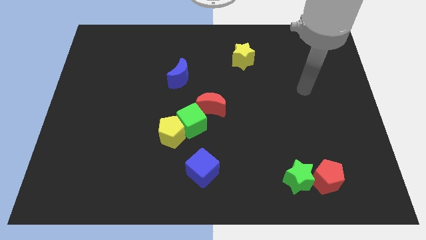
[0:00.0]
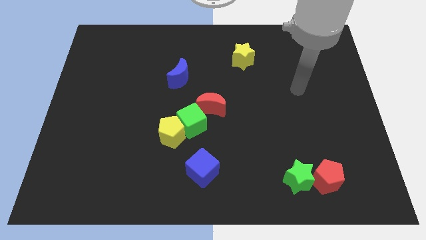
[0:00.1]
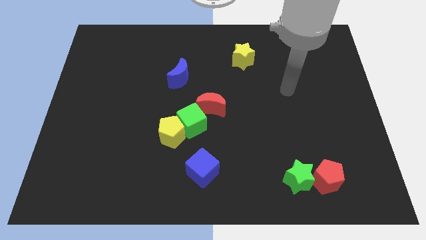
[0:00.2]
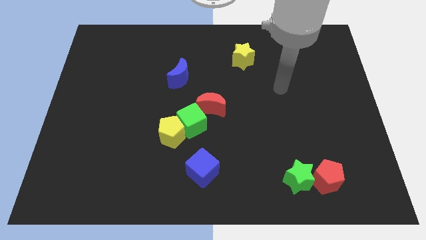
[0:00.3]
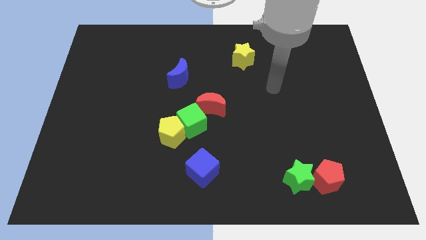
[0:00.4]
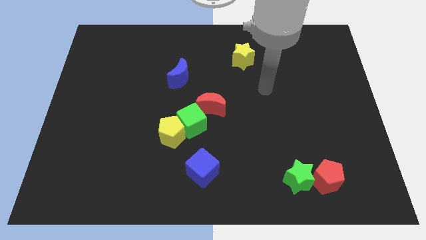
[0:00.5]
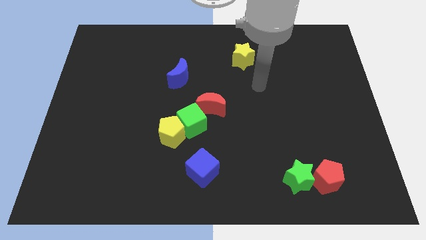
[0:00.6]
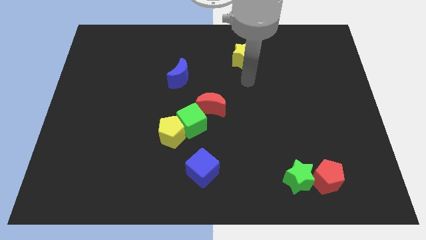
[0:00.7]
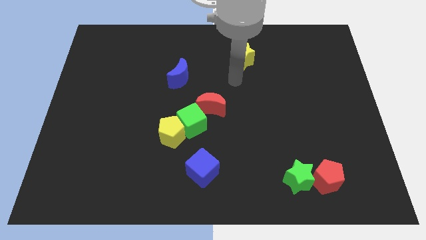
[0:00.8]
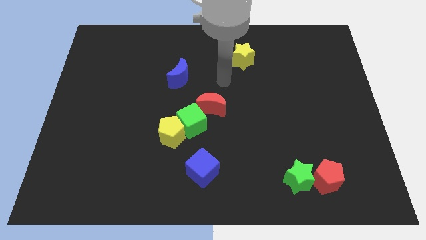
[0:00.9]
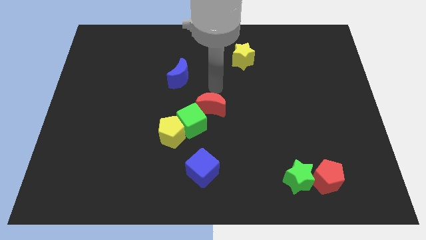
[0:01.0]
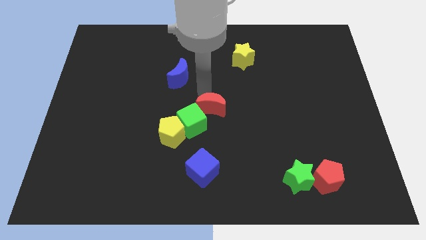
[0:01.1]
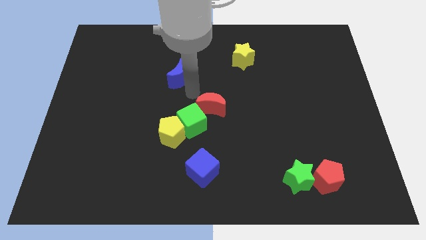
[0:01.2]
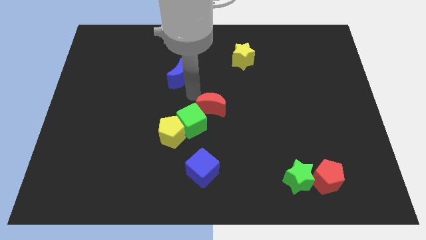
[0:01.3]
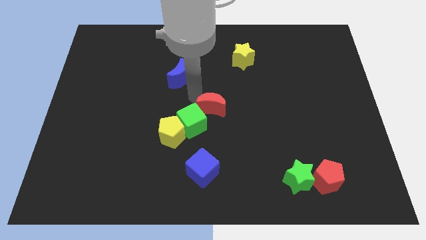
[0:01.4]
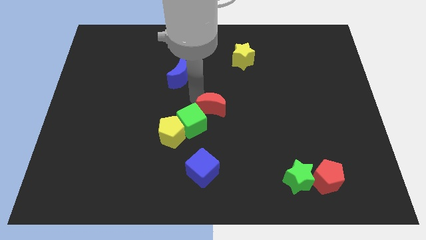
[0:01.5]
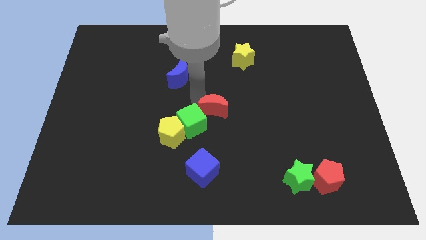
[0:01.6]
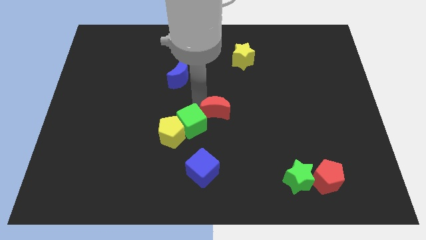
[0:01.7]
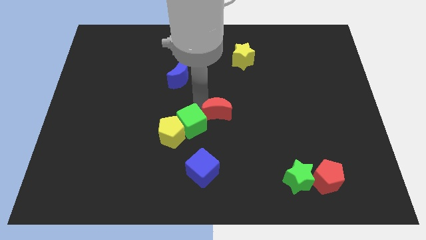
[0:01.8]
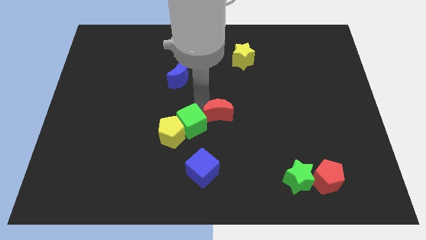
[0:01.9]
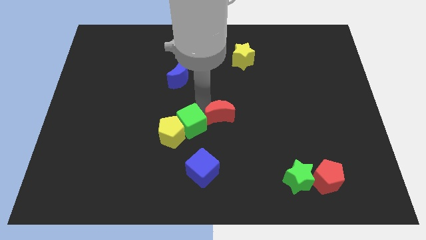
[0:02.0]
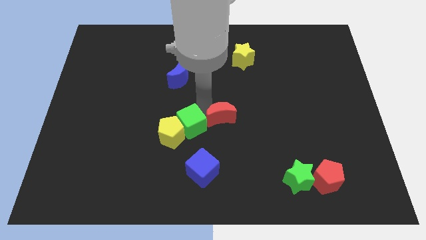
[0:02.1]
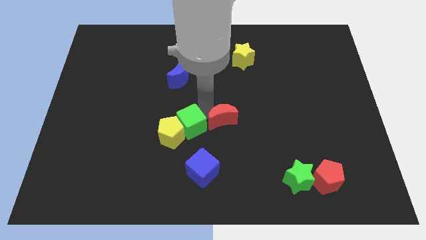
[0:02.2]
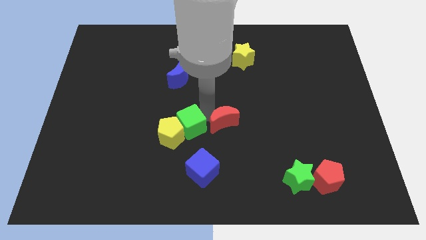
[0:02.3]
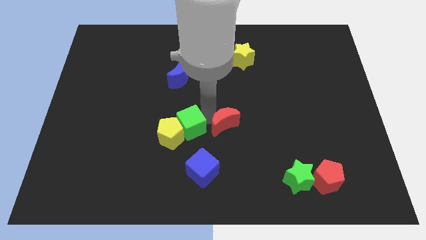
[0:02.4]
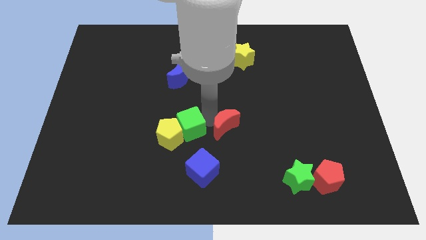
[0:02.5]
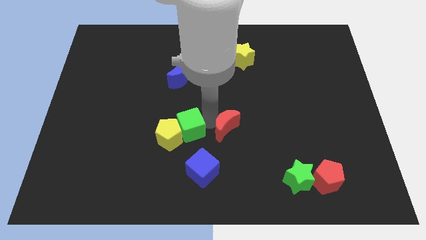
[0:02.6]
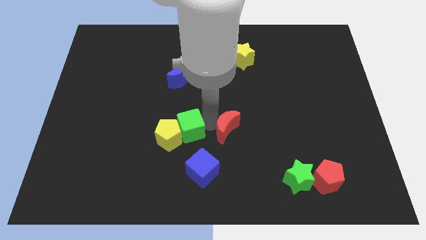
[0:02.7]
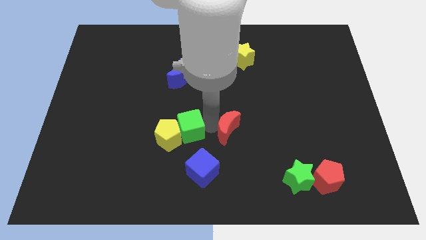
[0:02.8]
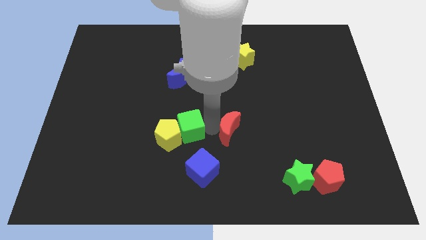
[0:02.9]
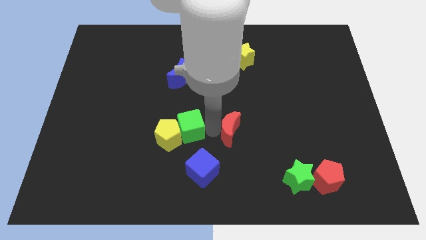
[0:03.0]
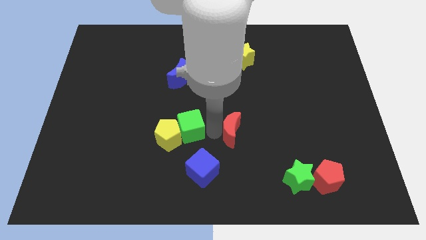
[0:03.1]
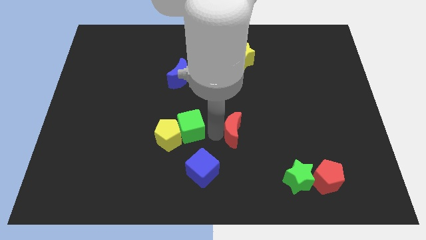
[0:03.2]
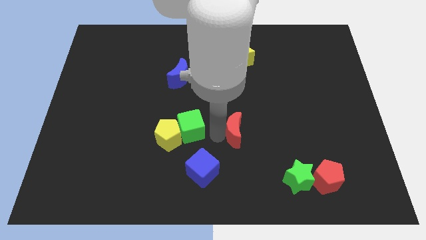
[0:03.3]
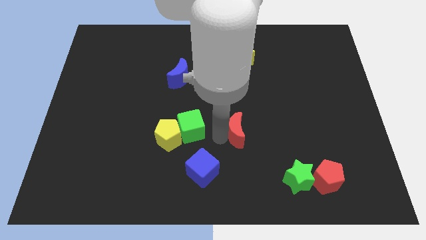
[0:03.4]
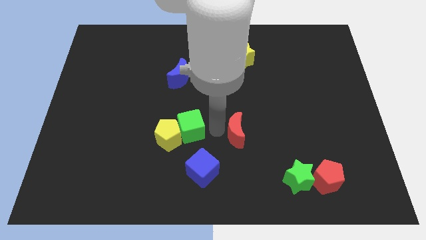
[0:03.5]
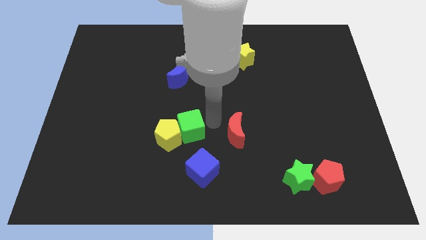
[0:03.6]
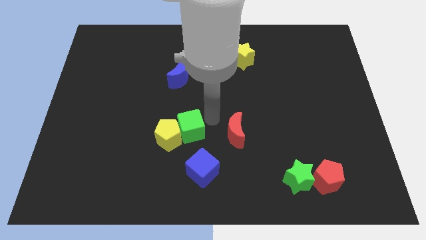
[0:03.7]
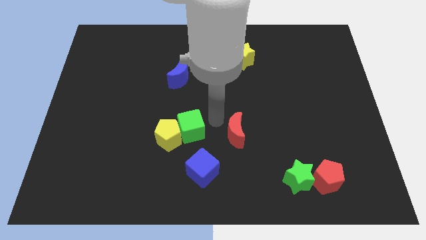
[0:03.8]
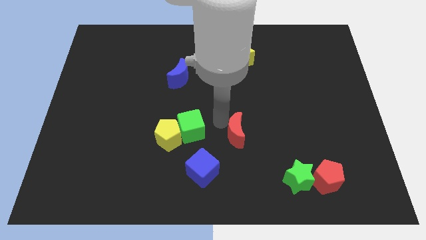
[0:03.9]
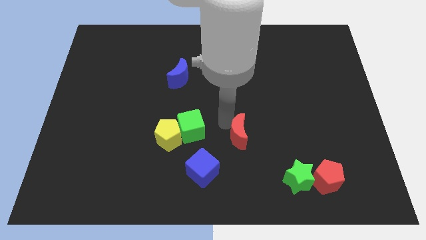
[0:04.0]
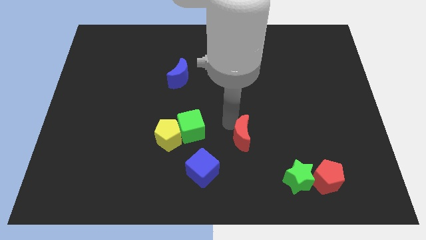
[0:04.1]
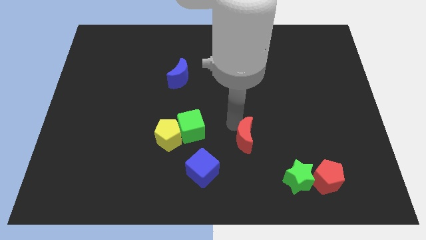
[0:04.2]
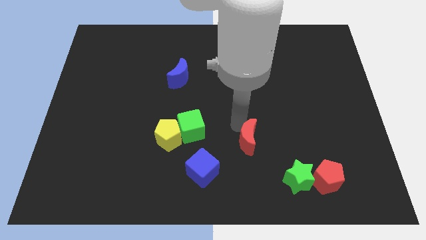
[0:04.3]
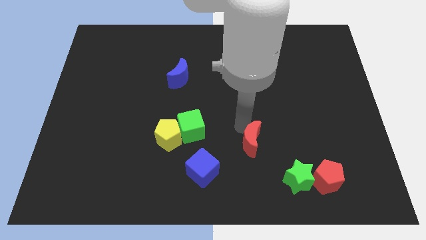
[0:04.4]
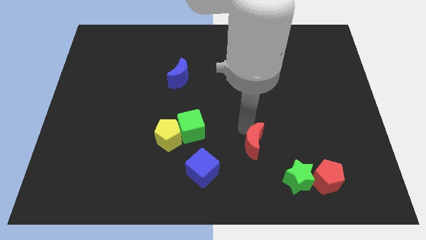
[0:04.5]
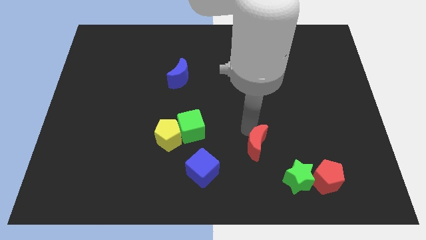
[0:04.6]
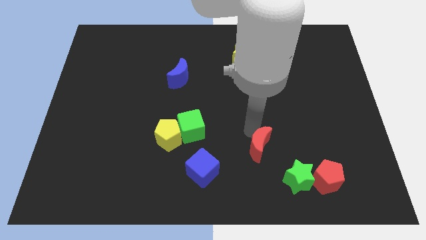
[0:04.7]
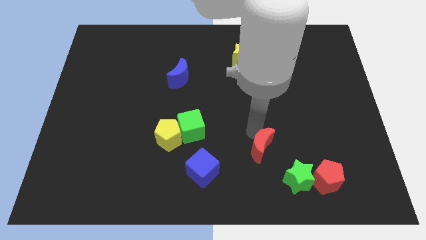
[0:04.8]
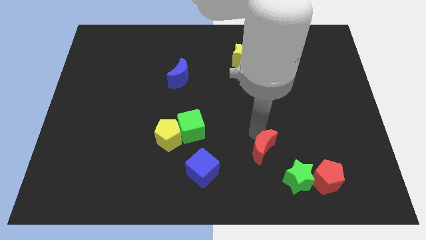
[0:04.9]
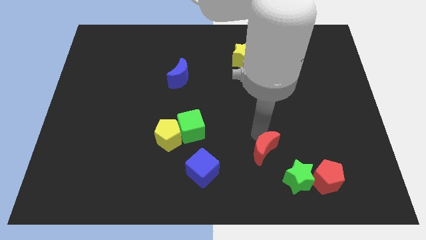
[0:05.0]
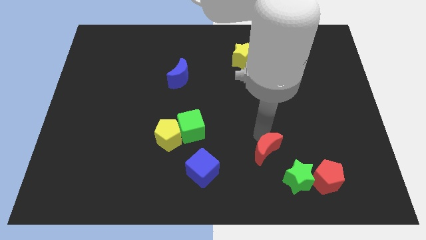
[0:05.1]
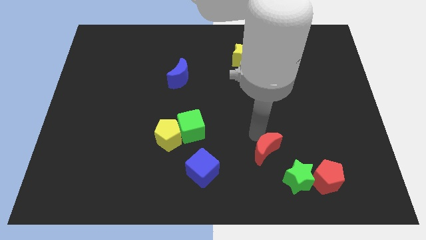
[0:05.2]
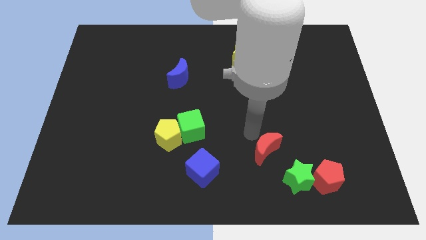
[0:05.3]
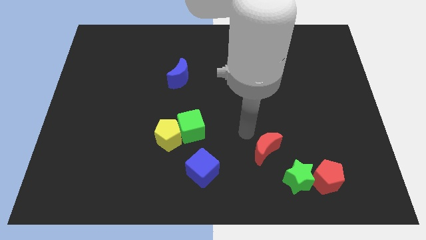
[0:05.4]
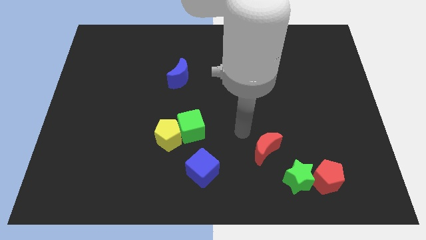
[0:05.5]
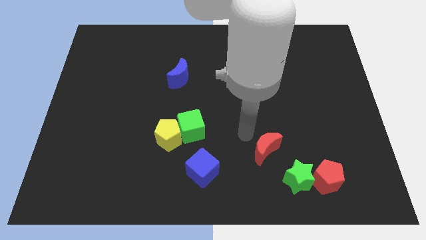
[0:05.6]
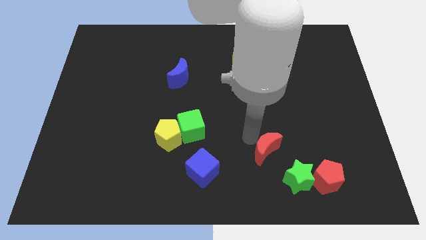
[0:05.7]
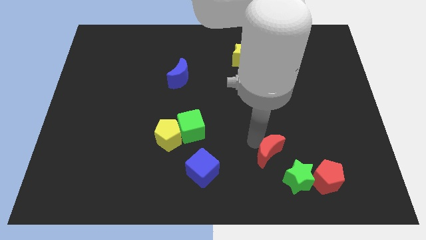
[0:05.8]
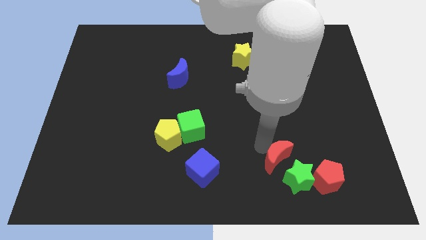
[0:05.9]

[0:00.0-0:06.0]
put the red moon towards the green star

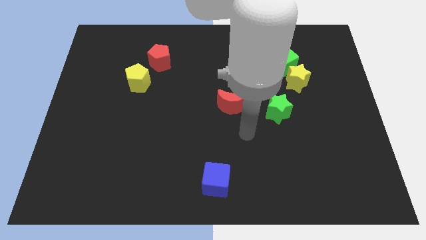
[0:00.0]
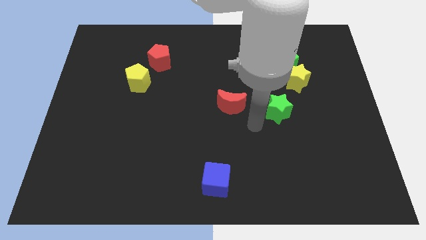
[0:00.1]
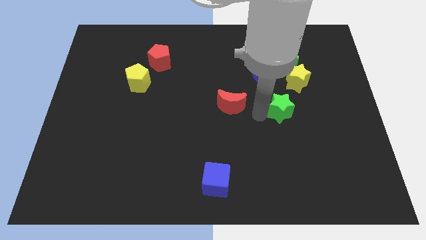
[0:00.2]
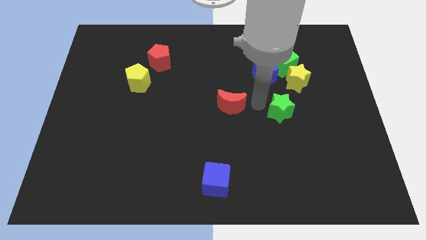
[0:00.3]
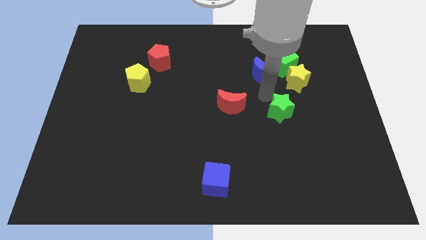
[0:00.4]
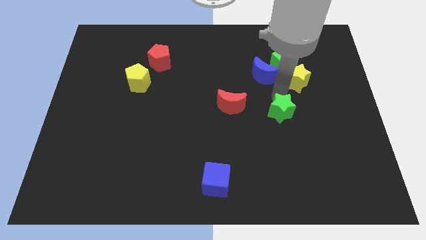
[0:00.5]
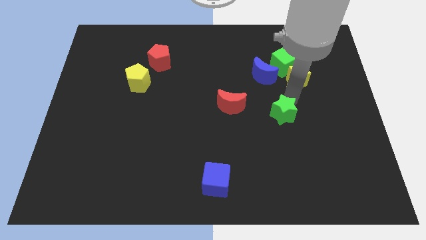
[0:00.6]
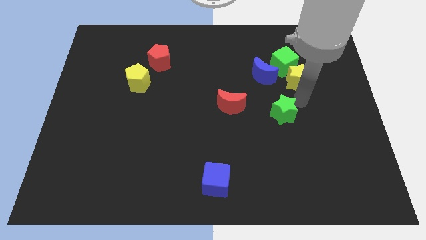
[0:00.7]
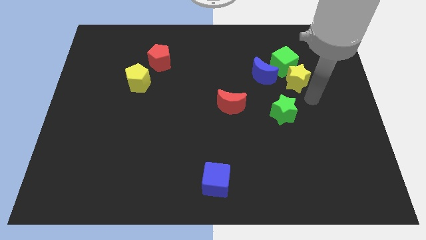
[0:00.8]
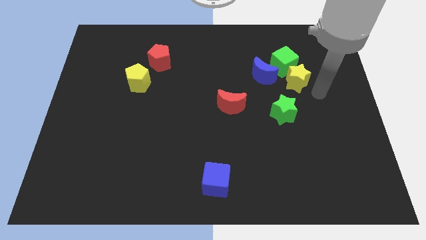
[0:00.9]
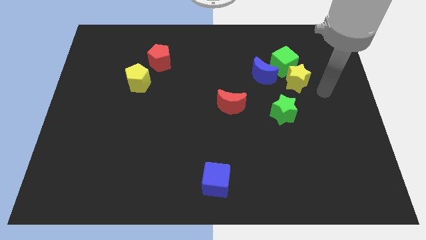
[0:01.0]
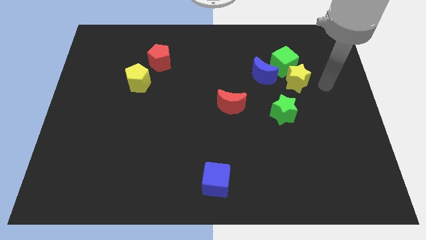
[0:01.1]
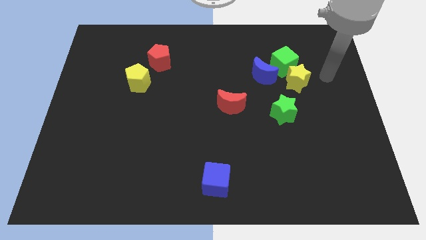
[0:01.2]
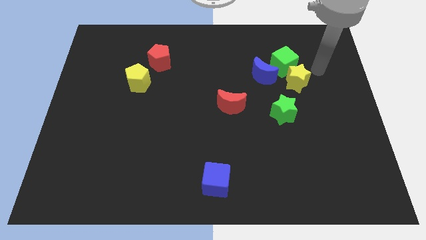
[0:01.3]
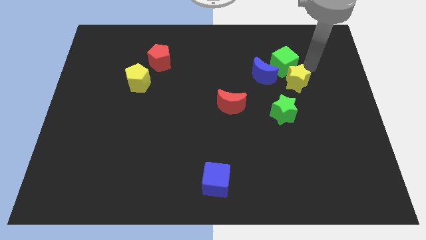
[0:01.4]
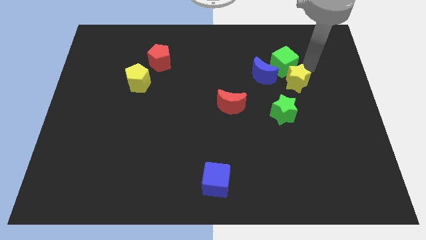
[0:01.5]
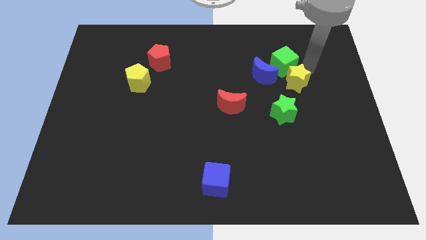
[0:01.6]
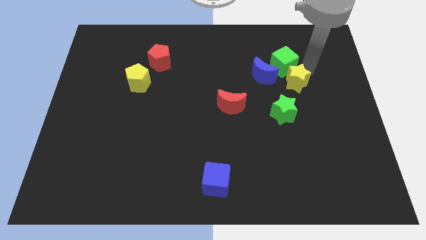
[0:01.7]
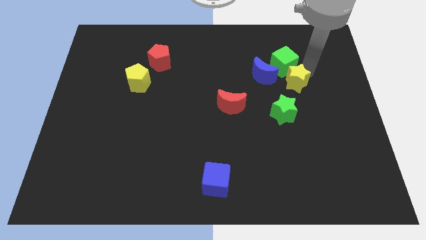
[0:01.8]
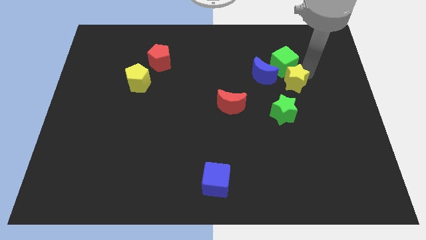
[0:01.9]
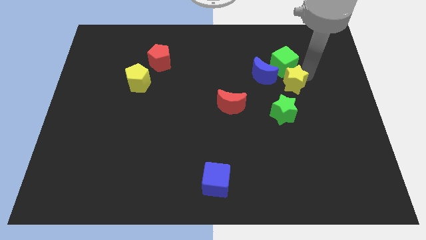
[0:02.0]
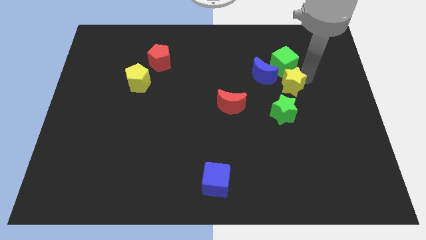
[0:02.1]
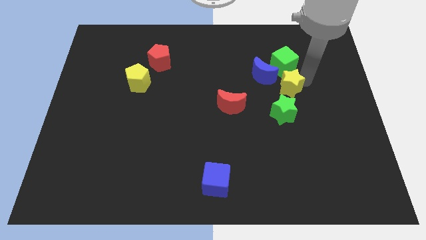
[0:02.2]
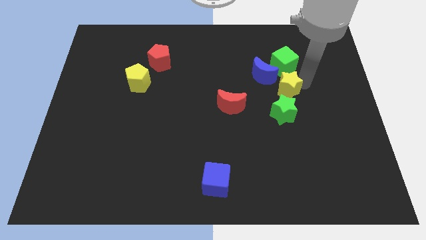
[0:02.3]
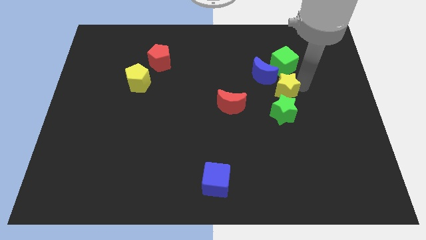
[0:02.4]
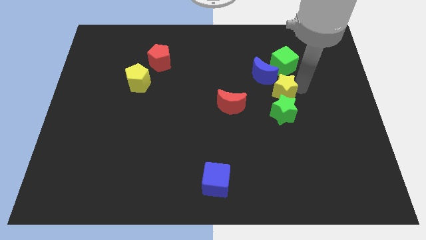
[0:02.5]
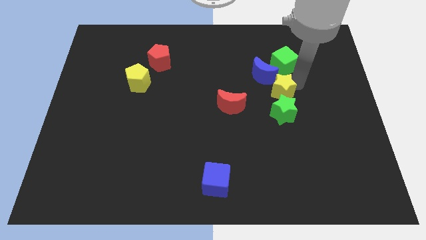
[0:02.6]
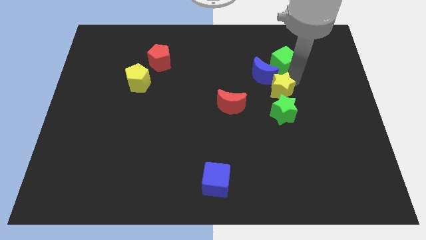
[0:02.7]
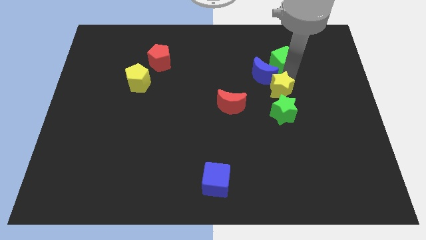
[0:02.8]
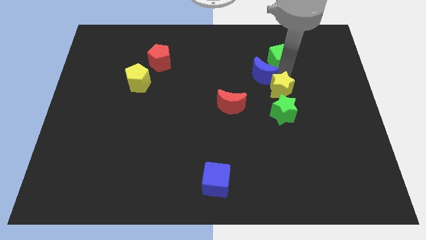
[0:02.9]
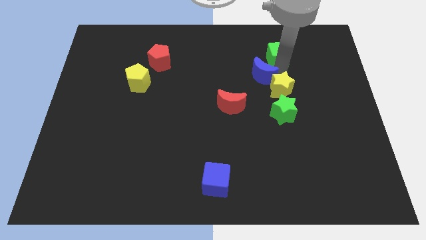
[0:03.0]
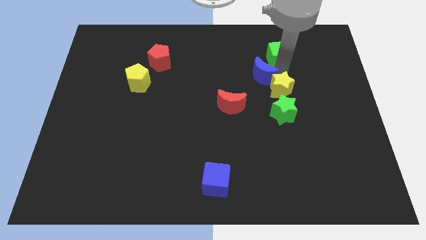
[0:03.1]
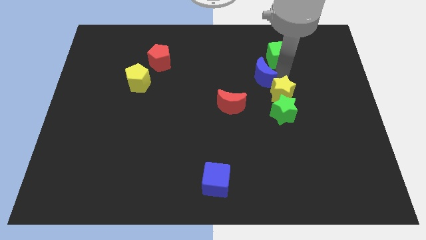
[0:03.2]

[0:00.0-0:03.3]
put the yellow star next to the green star
